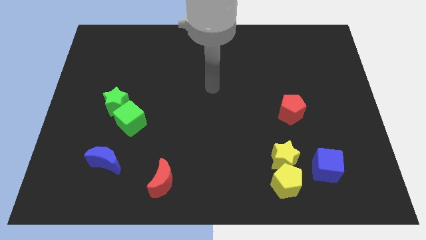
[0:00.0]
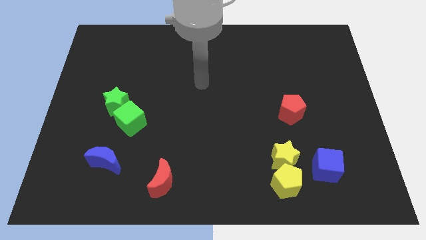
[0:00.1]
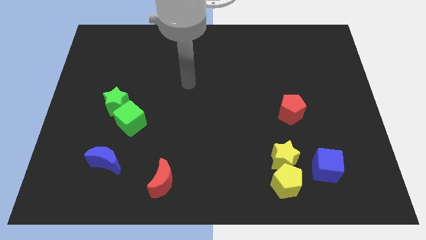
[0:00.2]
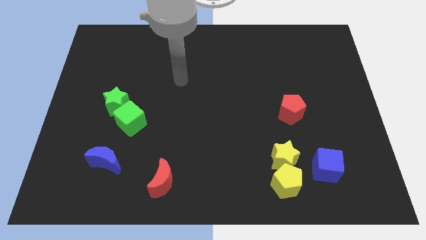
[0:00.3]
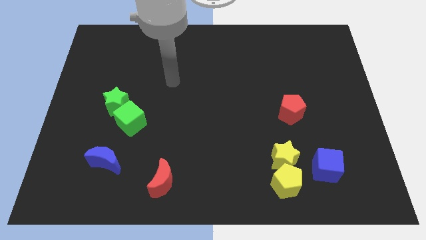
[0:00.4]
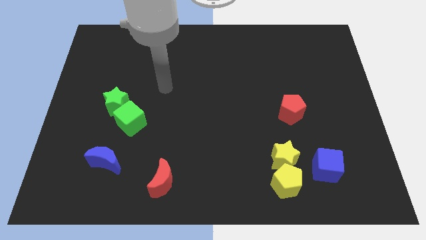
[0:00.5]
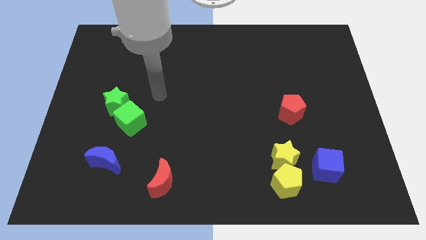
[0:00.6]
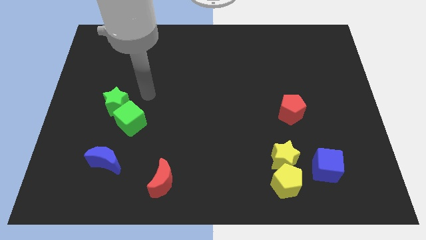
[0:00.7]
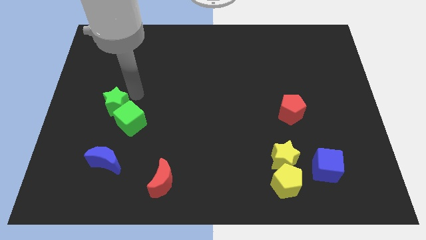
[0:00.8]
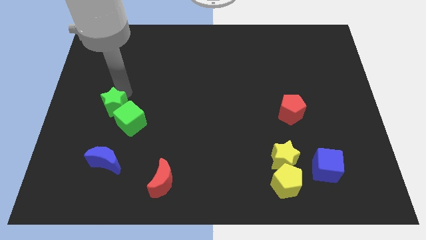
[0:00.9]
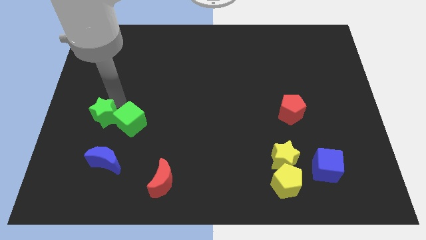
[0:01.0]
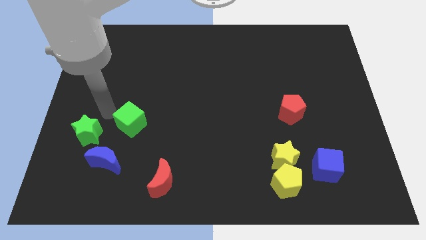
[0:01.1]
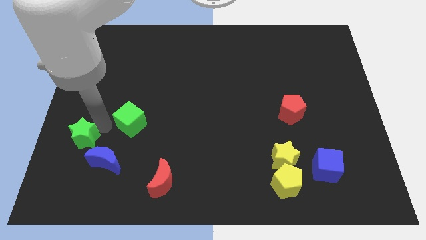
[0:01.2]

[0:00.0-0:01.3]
pull the green cube apart from the green star

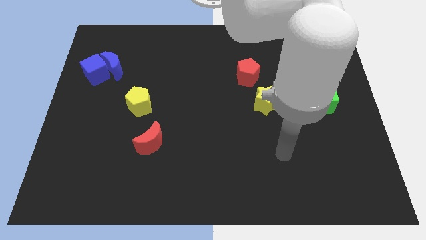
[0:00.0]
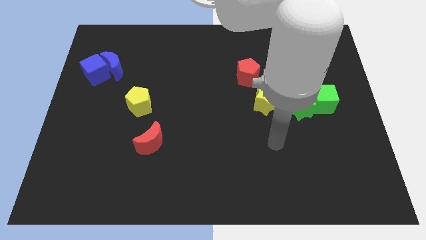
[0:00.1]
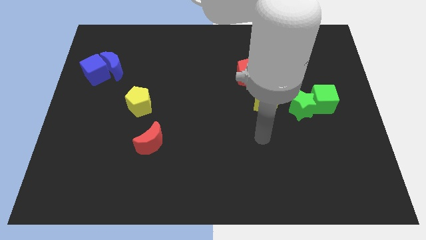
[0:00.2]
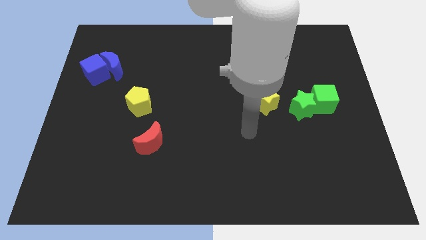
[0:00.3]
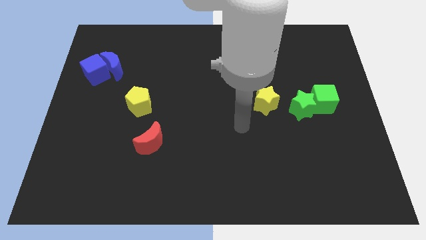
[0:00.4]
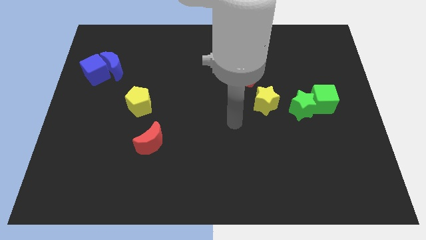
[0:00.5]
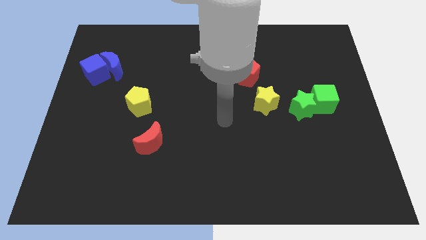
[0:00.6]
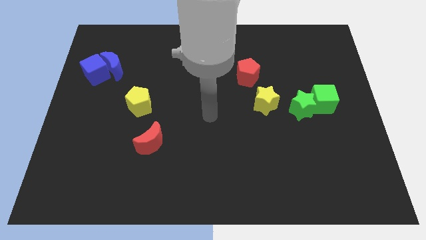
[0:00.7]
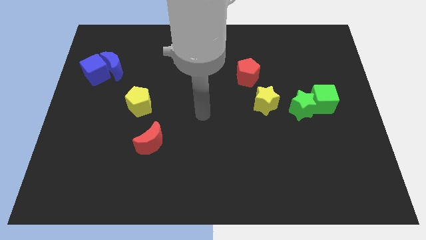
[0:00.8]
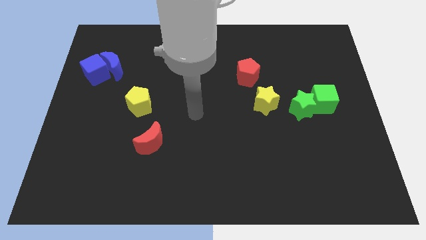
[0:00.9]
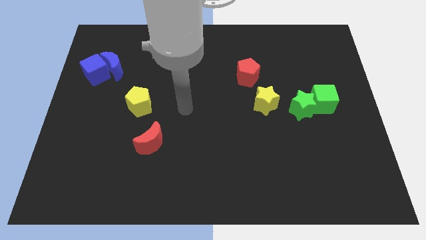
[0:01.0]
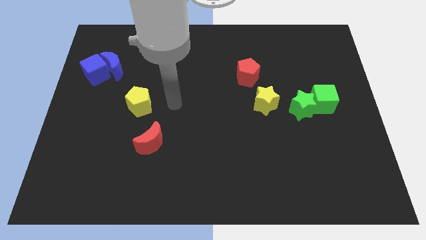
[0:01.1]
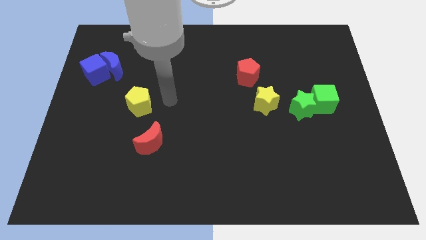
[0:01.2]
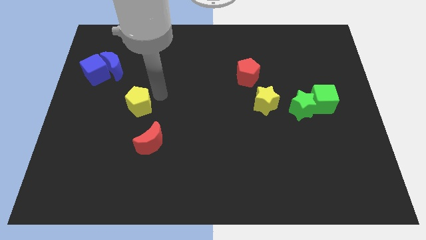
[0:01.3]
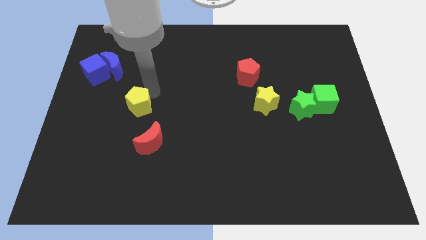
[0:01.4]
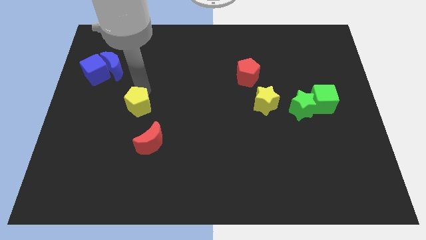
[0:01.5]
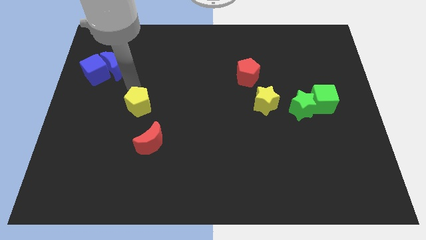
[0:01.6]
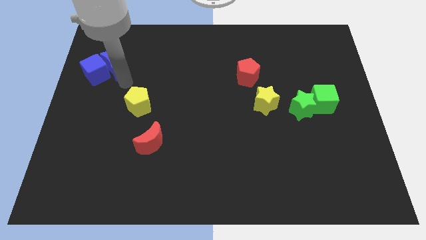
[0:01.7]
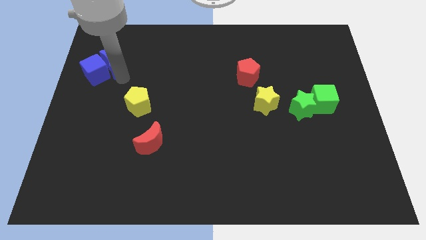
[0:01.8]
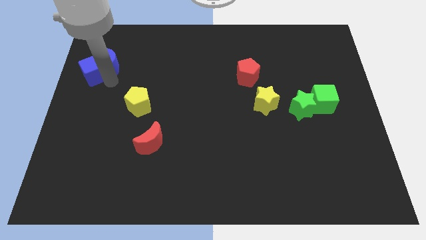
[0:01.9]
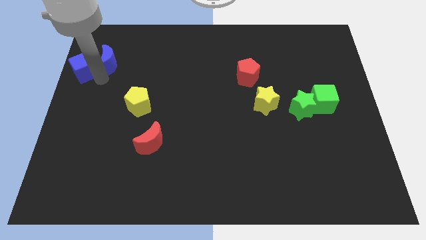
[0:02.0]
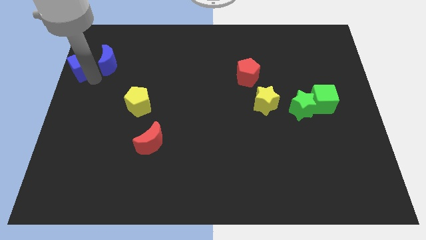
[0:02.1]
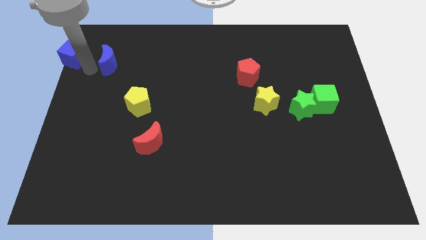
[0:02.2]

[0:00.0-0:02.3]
separate the blue moon from the blue cube

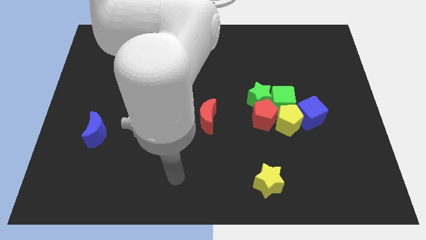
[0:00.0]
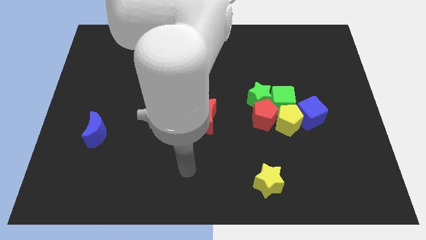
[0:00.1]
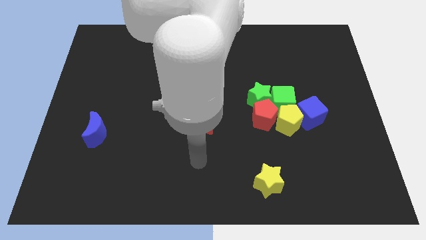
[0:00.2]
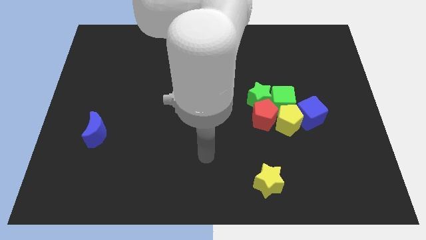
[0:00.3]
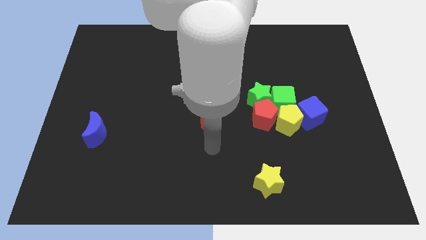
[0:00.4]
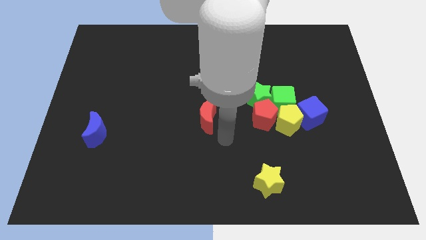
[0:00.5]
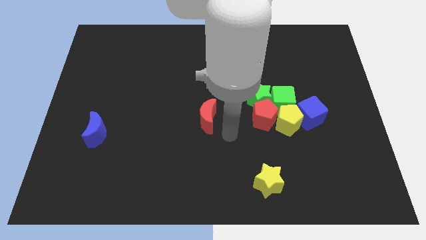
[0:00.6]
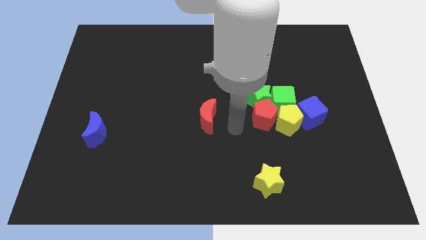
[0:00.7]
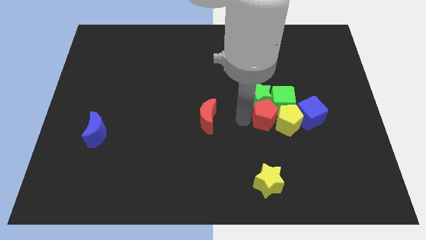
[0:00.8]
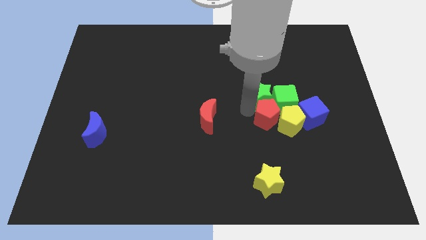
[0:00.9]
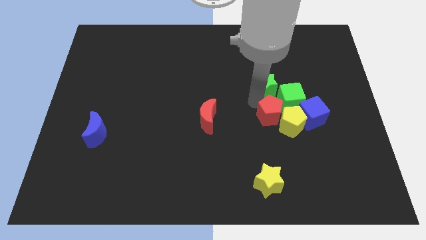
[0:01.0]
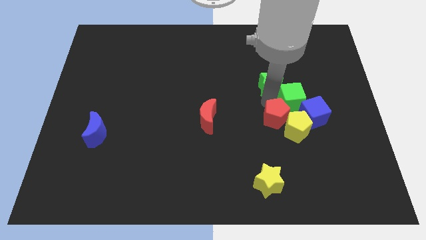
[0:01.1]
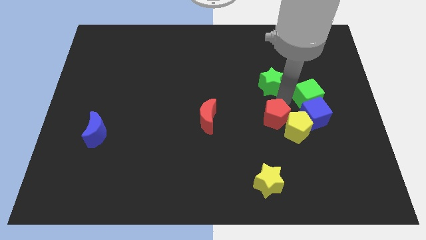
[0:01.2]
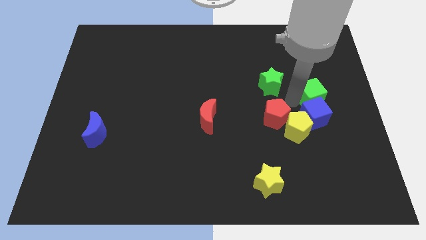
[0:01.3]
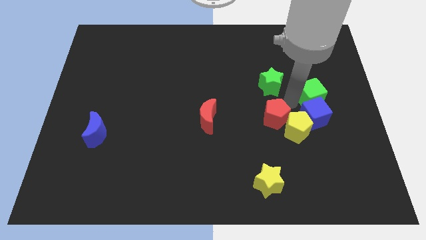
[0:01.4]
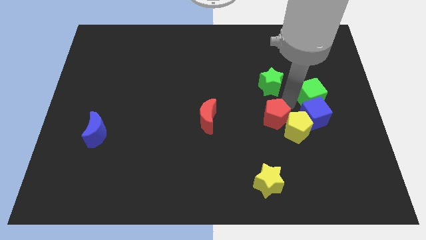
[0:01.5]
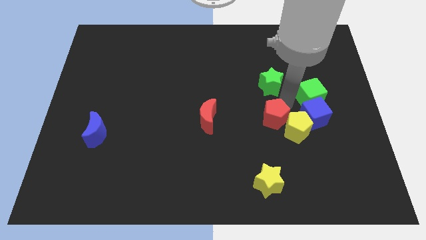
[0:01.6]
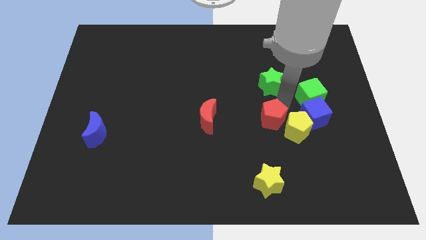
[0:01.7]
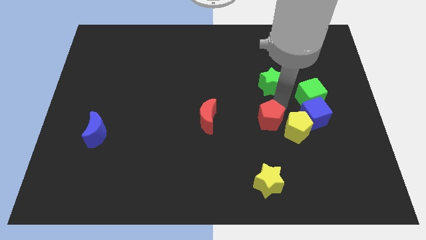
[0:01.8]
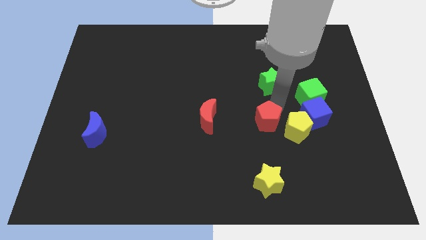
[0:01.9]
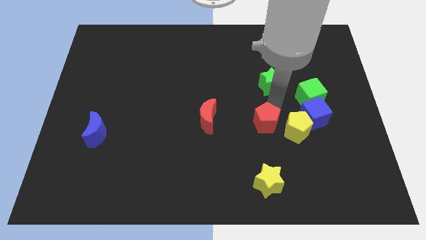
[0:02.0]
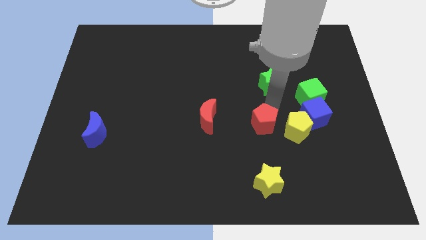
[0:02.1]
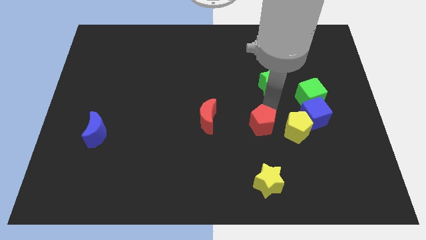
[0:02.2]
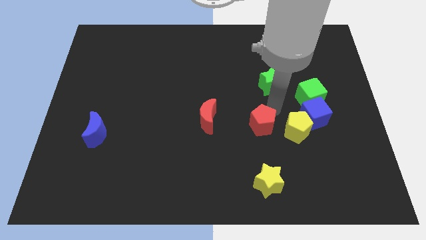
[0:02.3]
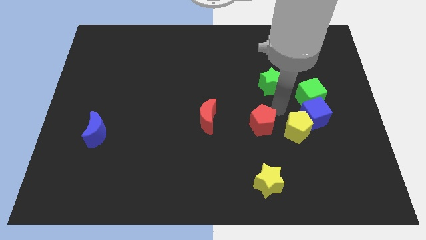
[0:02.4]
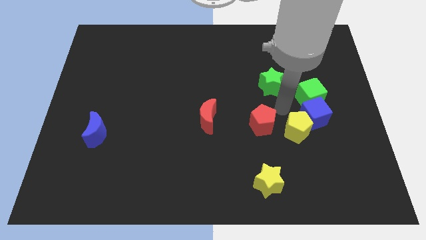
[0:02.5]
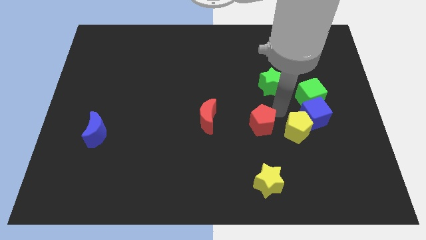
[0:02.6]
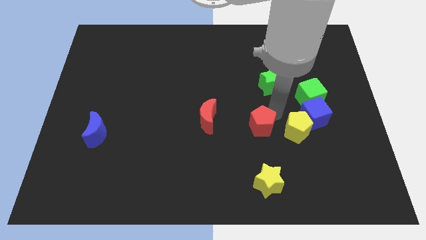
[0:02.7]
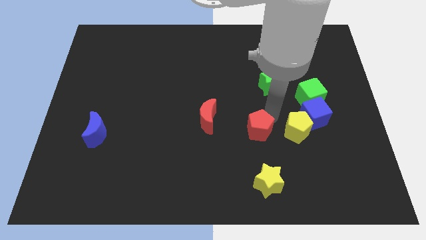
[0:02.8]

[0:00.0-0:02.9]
pull the red pentagon apart from the green star, yellow pentagon, and green cube

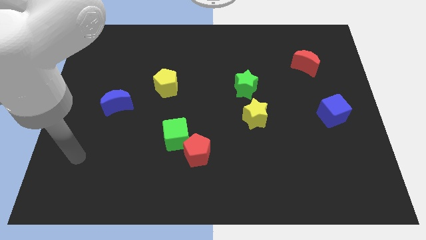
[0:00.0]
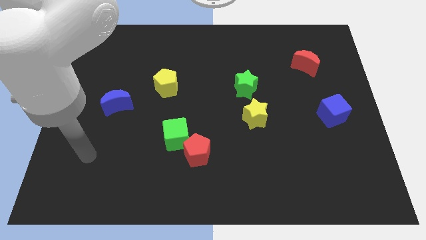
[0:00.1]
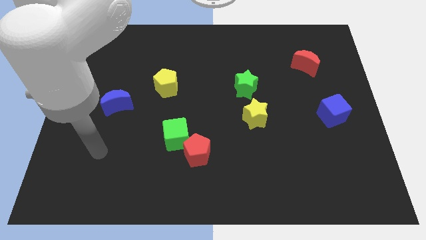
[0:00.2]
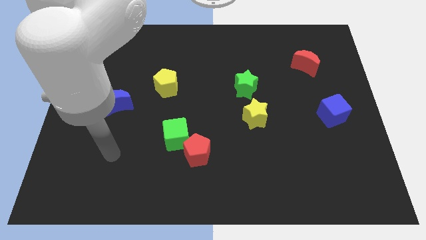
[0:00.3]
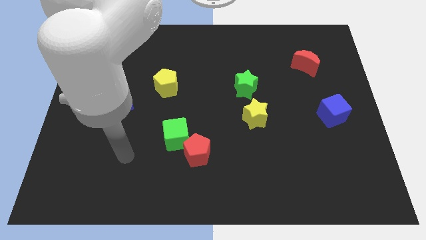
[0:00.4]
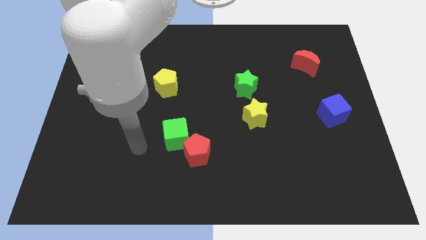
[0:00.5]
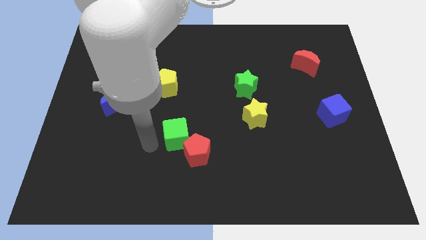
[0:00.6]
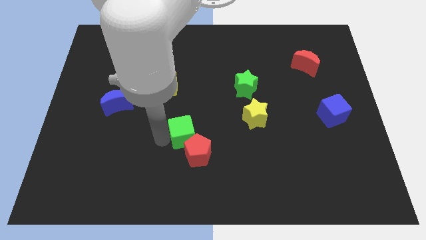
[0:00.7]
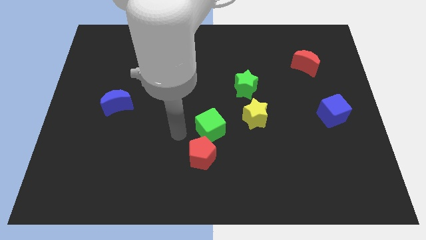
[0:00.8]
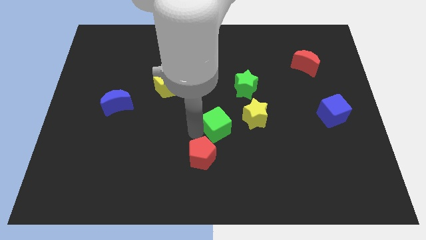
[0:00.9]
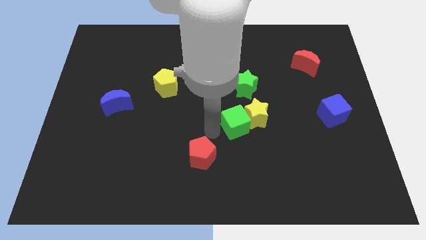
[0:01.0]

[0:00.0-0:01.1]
pull the red pentagon apart from the green cube

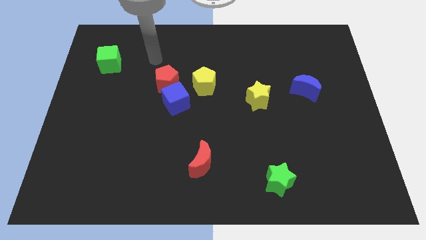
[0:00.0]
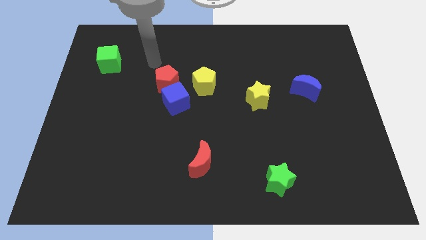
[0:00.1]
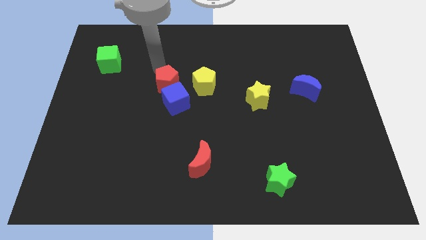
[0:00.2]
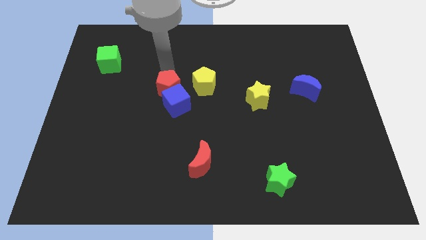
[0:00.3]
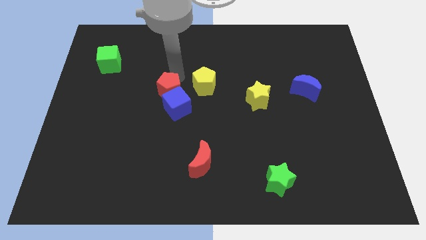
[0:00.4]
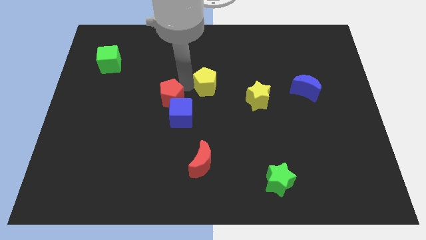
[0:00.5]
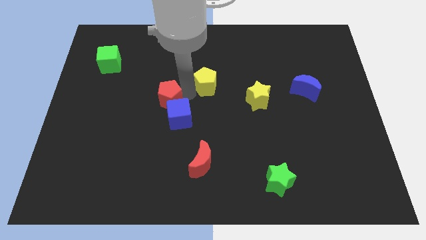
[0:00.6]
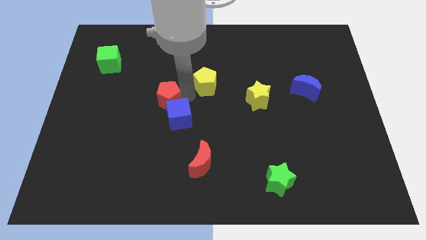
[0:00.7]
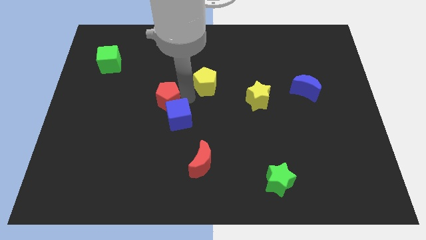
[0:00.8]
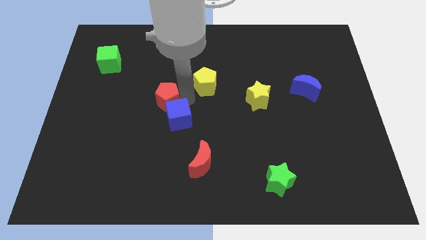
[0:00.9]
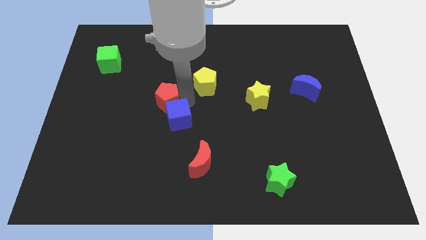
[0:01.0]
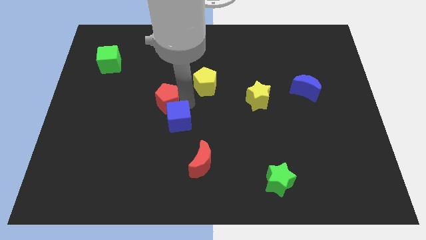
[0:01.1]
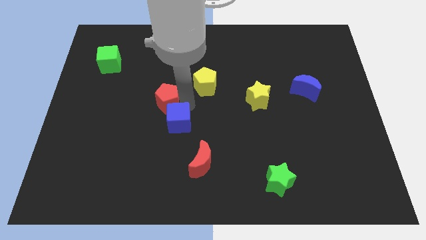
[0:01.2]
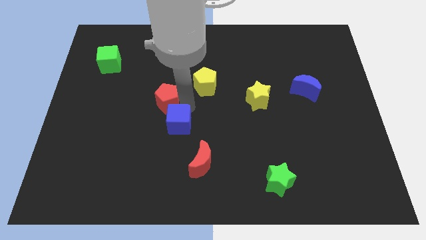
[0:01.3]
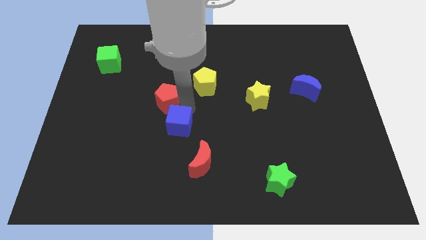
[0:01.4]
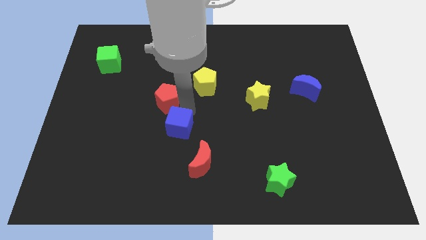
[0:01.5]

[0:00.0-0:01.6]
pull the blue cube apart from the red pentagon and yellow pentagon

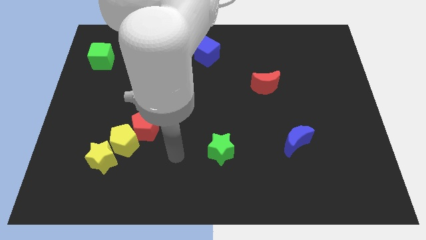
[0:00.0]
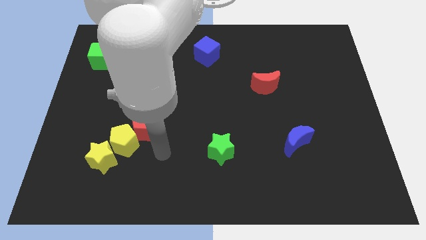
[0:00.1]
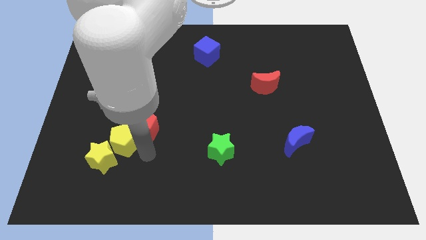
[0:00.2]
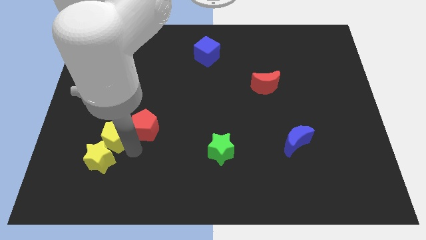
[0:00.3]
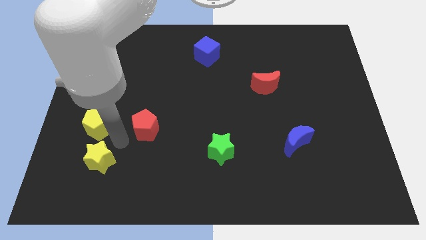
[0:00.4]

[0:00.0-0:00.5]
pull the red pentagon apart from the yellow pentagon
